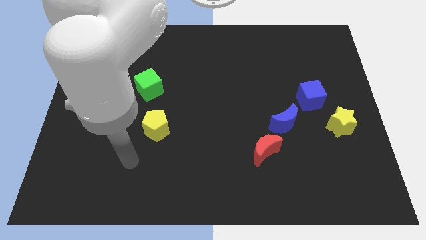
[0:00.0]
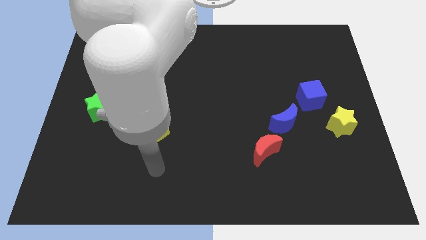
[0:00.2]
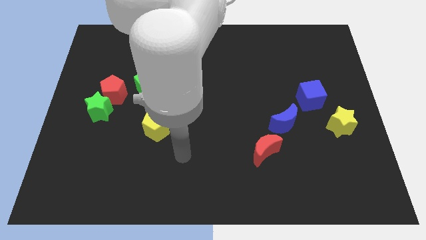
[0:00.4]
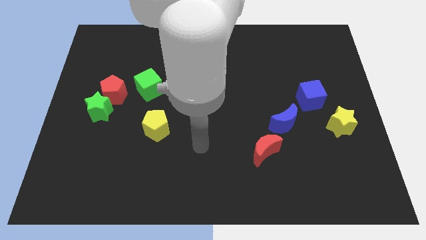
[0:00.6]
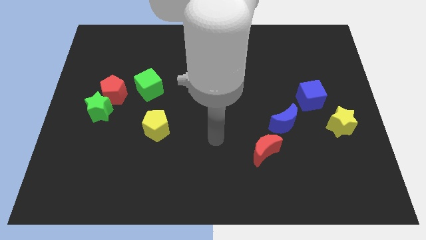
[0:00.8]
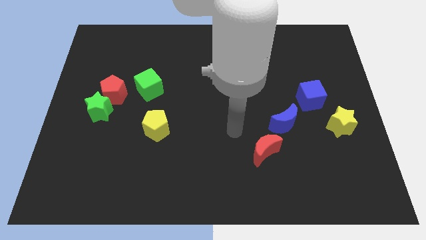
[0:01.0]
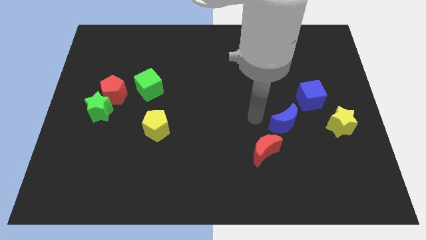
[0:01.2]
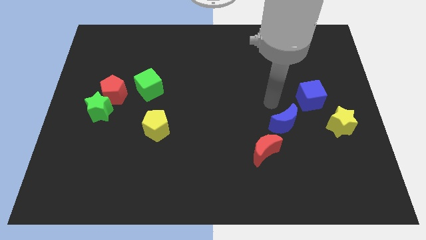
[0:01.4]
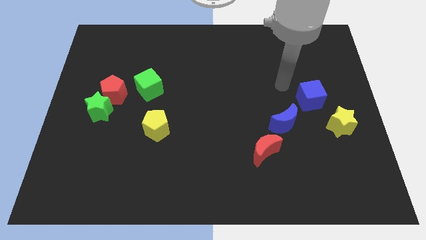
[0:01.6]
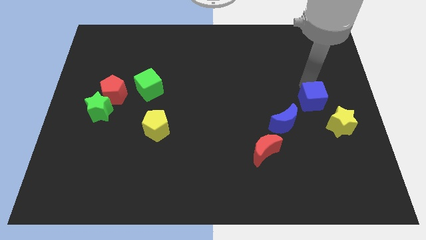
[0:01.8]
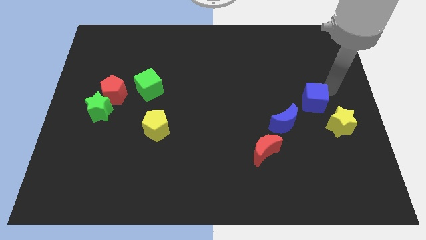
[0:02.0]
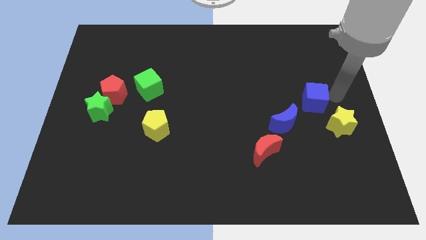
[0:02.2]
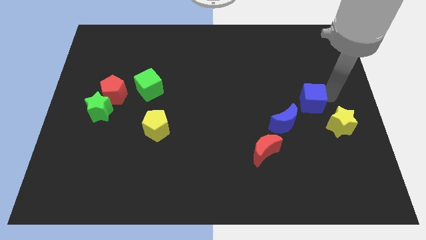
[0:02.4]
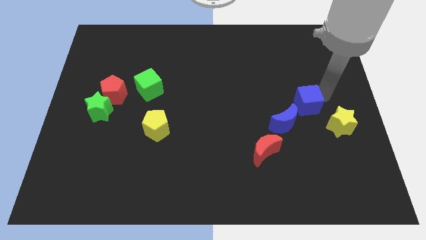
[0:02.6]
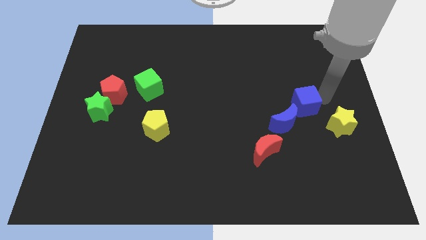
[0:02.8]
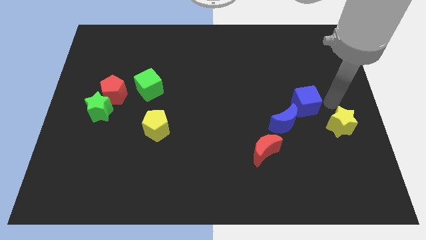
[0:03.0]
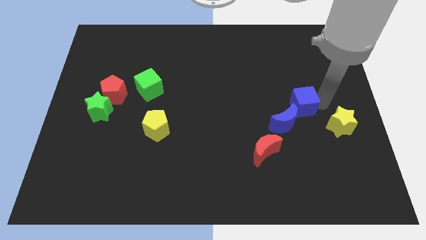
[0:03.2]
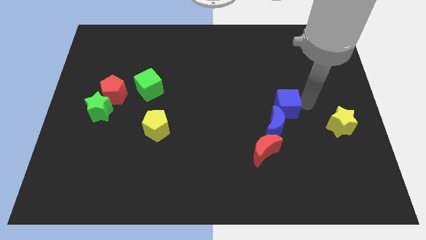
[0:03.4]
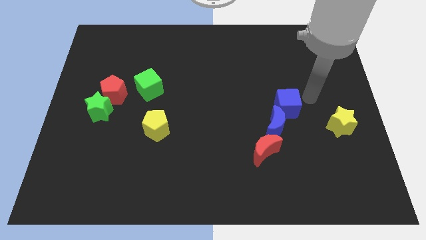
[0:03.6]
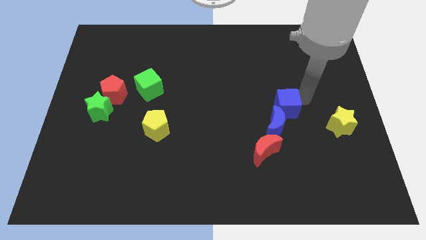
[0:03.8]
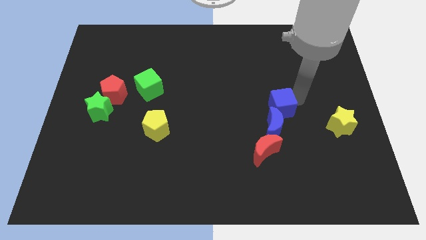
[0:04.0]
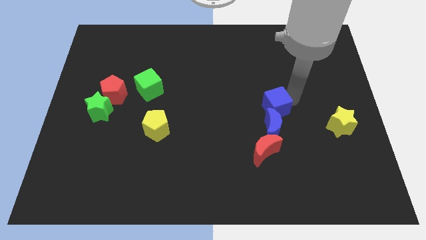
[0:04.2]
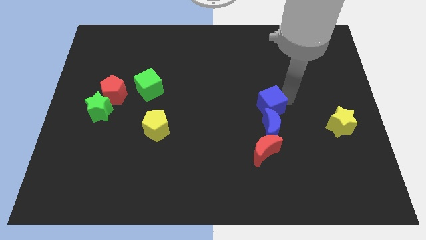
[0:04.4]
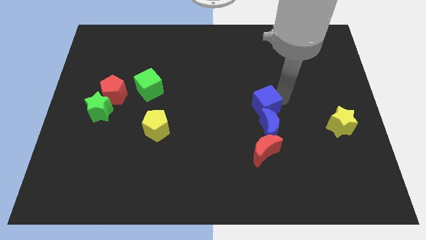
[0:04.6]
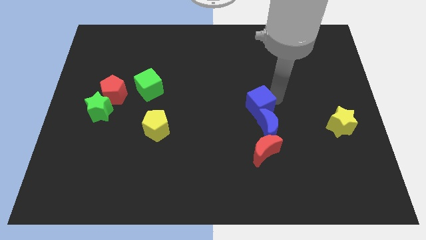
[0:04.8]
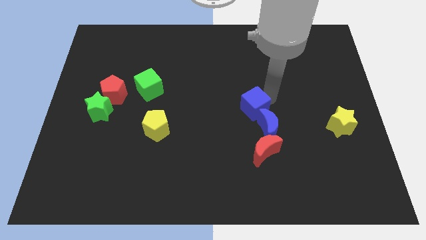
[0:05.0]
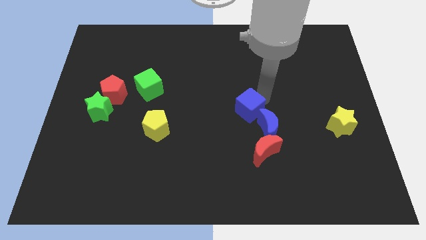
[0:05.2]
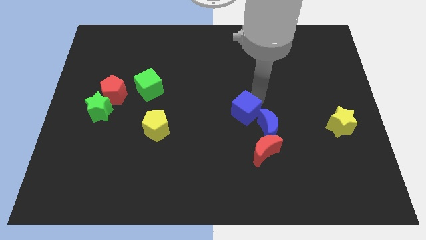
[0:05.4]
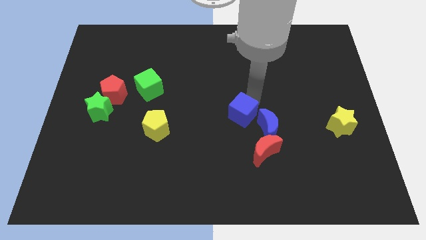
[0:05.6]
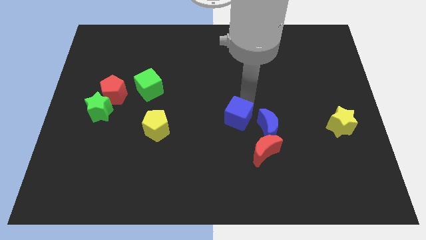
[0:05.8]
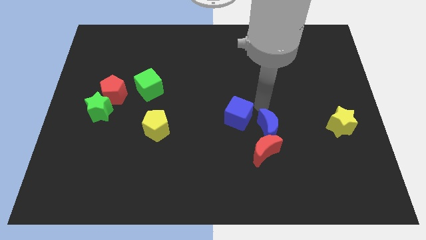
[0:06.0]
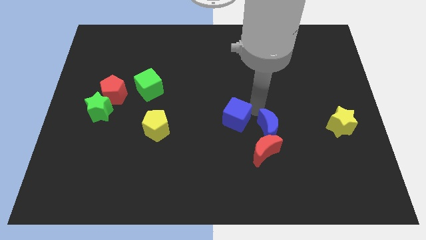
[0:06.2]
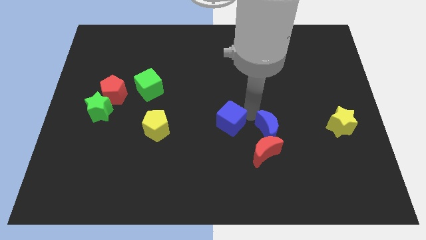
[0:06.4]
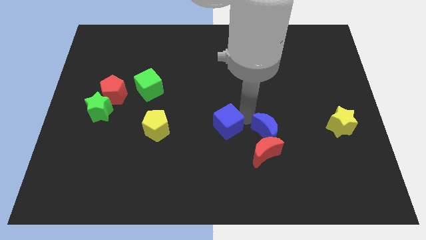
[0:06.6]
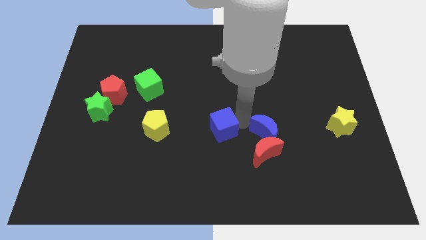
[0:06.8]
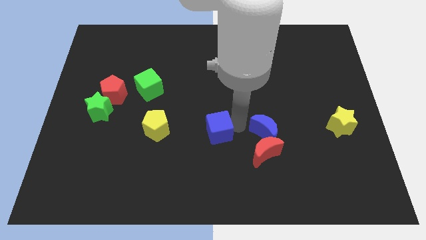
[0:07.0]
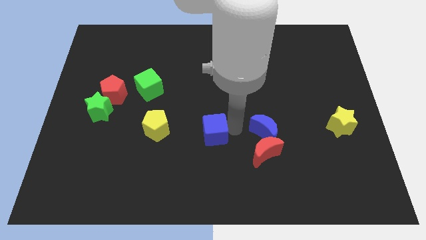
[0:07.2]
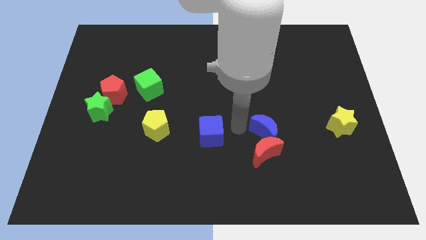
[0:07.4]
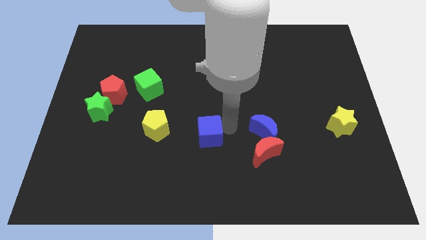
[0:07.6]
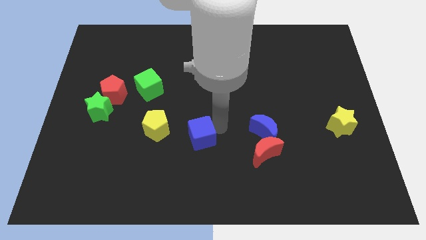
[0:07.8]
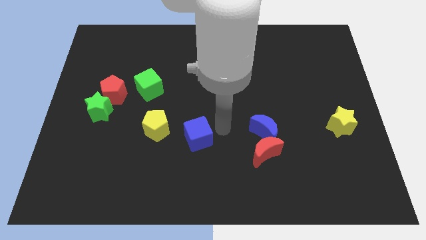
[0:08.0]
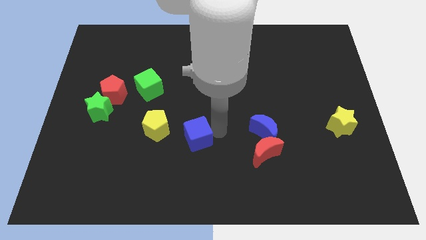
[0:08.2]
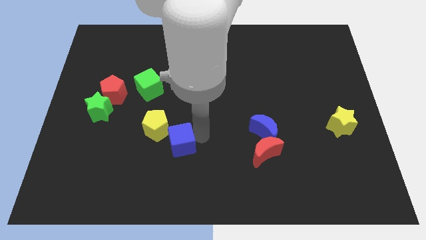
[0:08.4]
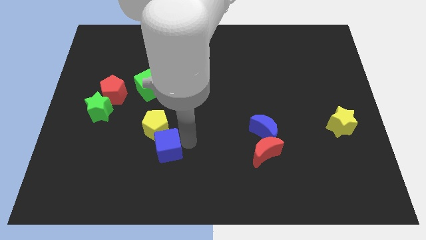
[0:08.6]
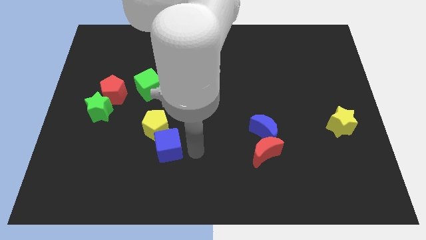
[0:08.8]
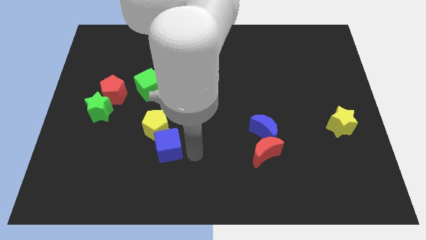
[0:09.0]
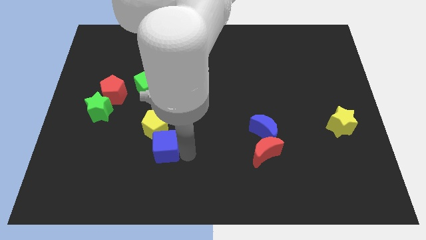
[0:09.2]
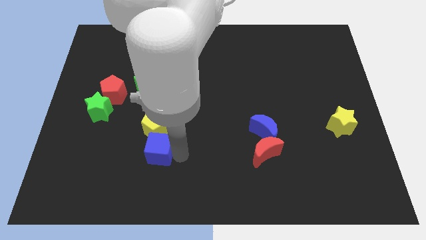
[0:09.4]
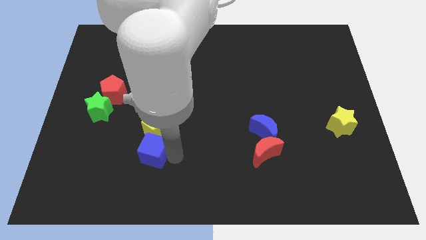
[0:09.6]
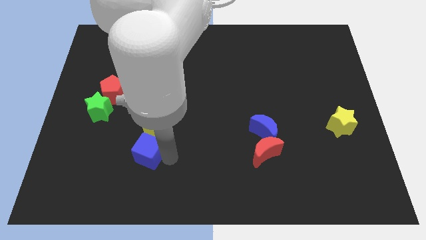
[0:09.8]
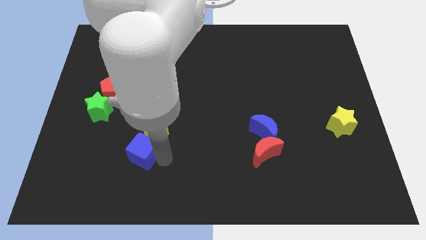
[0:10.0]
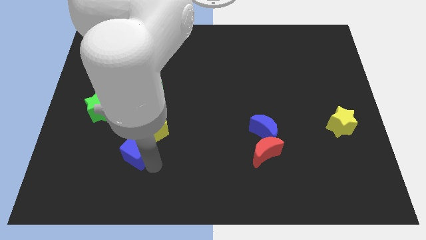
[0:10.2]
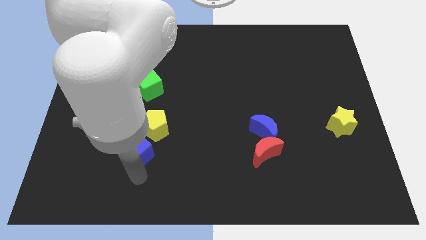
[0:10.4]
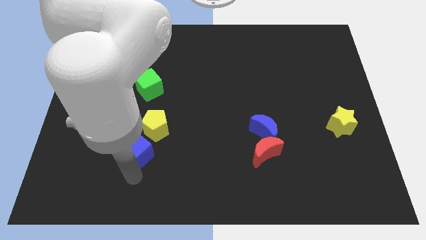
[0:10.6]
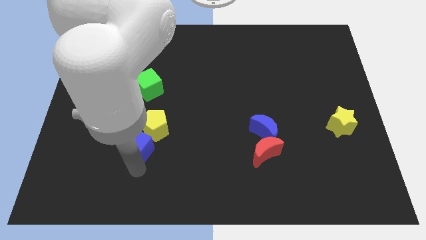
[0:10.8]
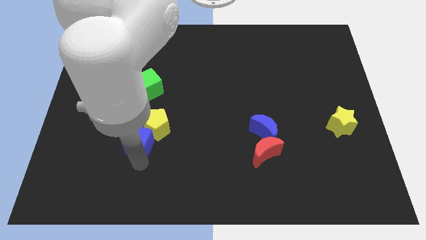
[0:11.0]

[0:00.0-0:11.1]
slide the blue cube to the bottom side of the green cube
